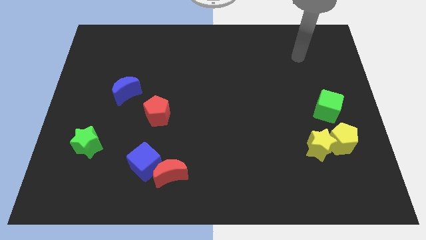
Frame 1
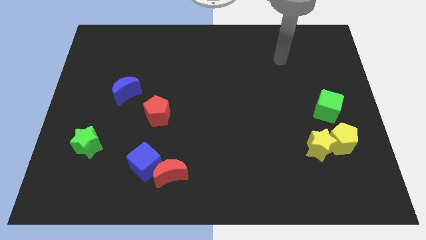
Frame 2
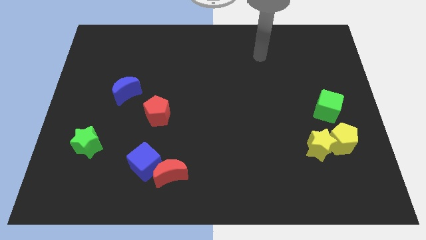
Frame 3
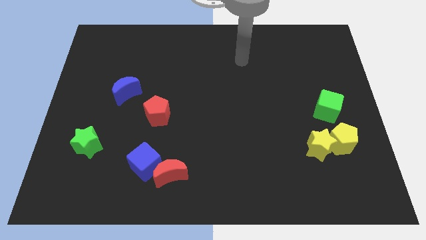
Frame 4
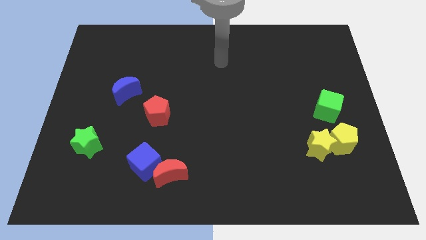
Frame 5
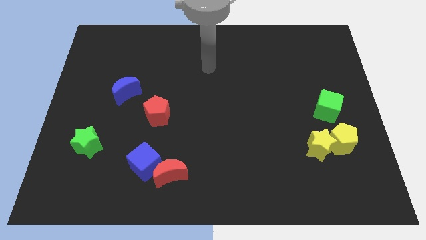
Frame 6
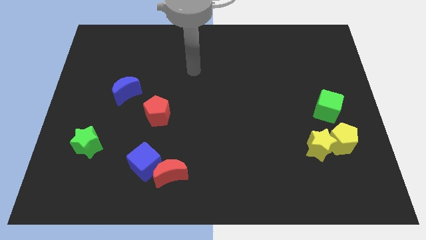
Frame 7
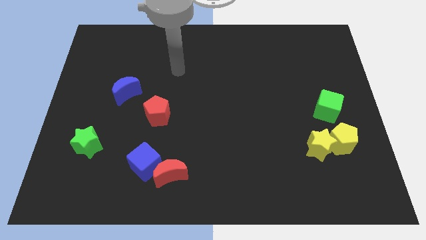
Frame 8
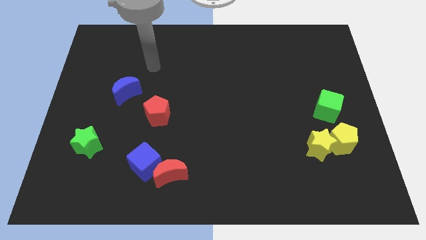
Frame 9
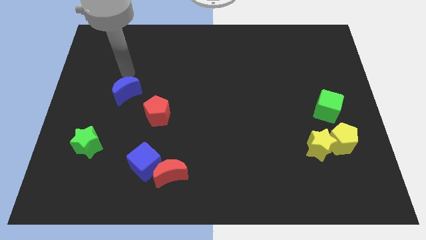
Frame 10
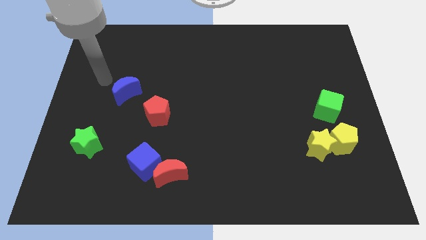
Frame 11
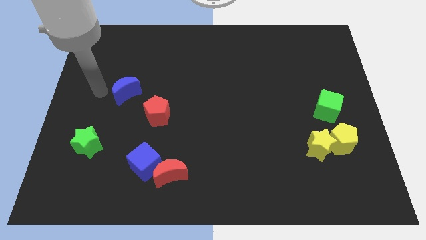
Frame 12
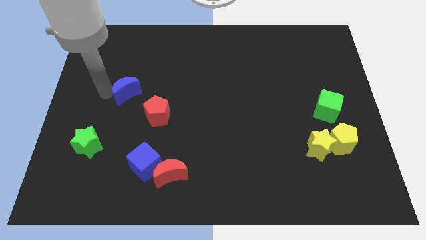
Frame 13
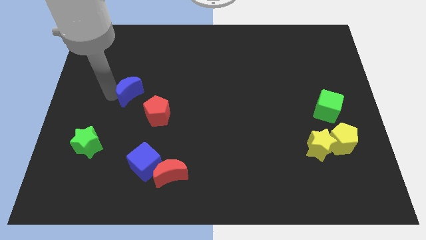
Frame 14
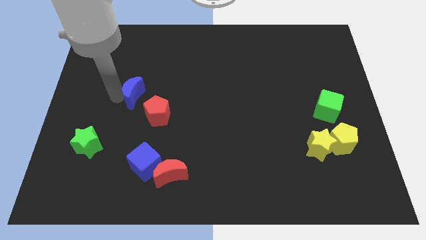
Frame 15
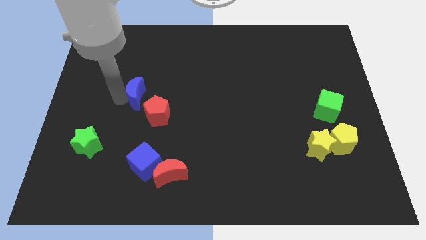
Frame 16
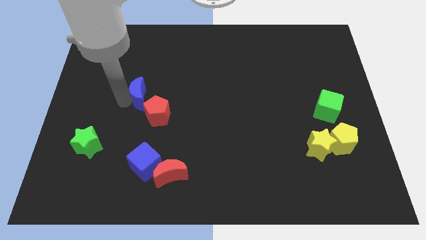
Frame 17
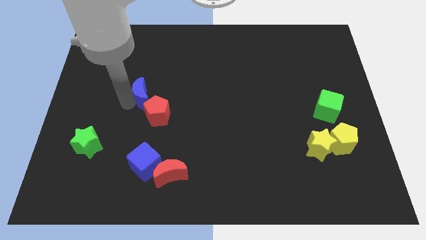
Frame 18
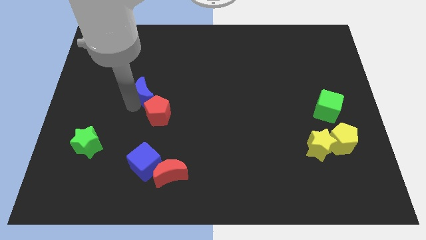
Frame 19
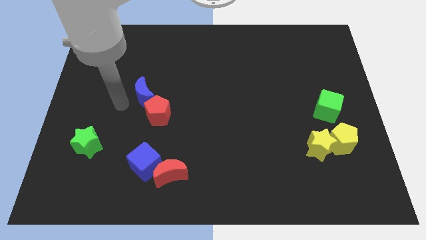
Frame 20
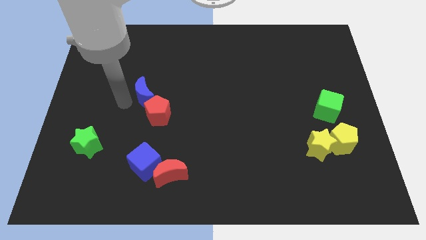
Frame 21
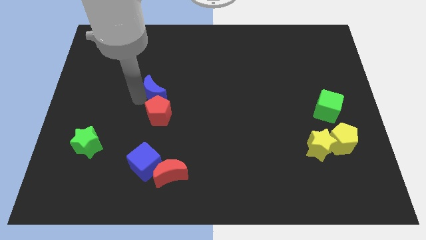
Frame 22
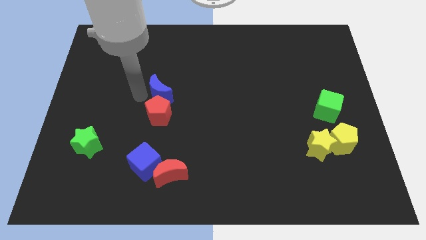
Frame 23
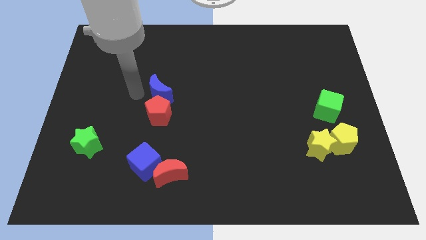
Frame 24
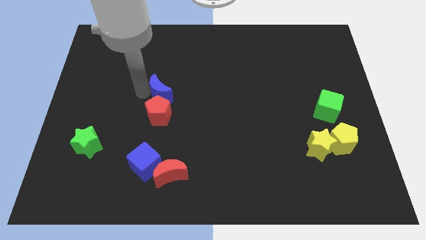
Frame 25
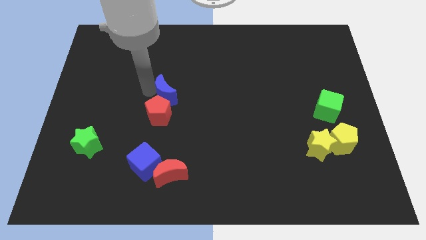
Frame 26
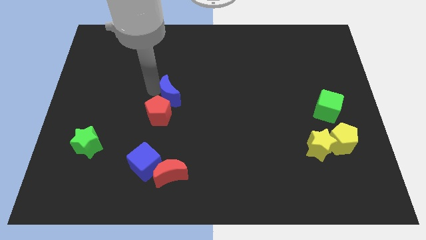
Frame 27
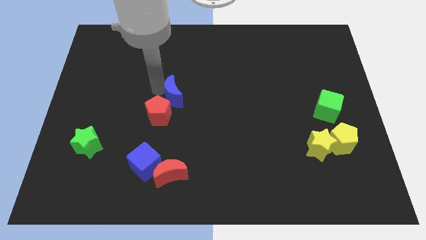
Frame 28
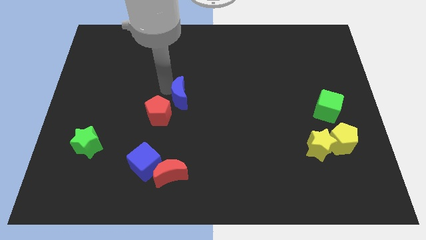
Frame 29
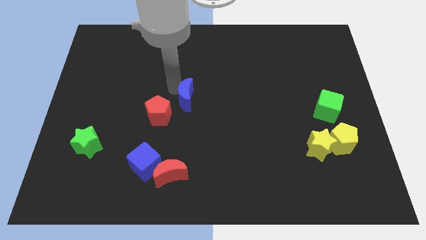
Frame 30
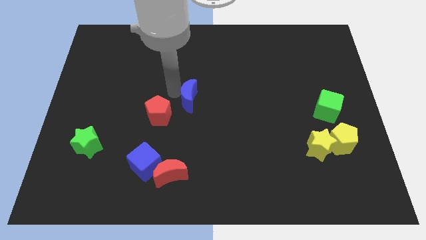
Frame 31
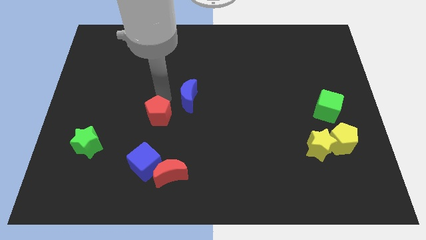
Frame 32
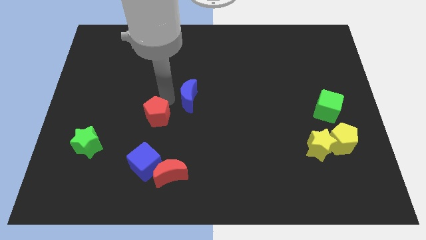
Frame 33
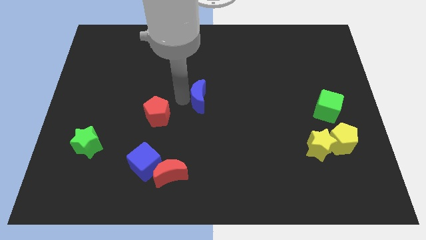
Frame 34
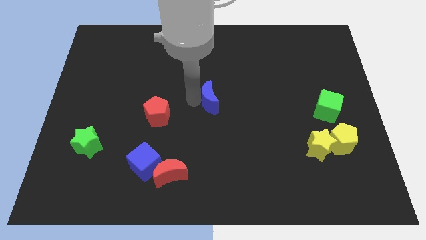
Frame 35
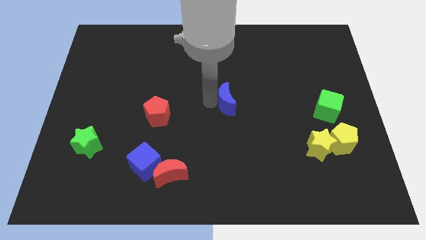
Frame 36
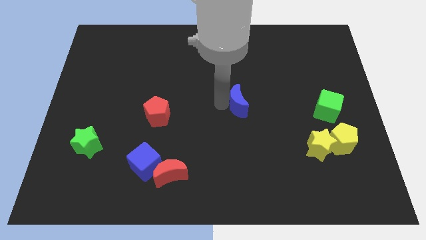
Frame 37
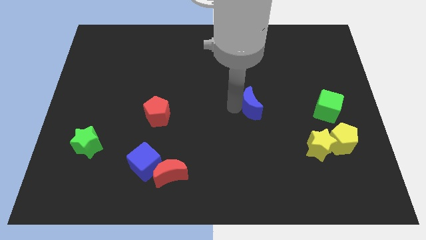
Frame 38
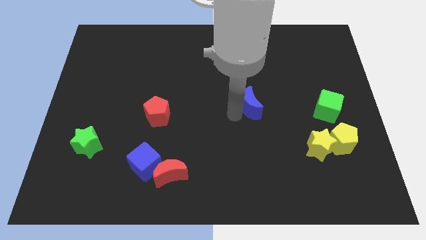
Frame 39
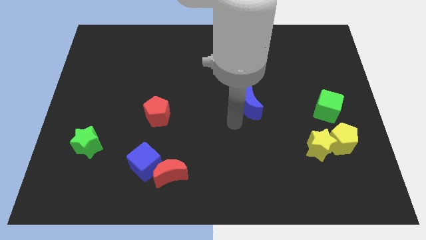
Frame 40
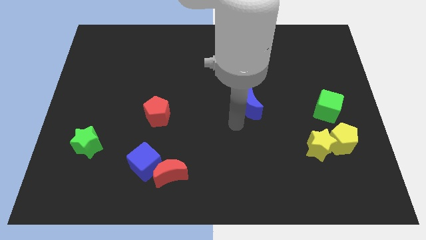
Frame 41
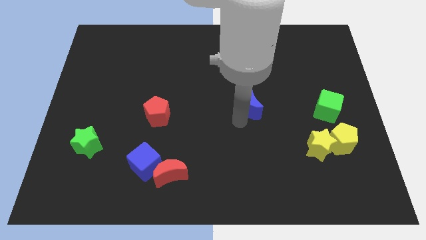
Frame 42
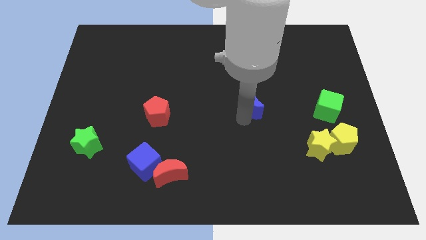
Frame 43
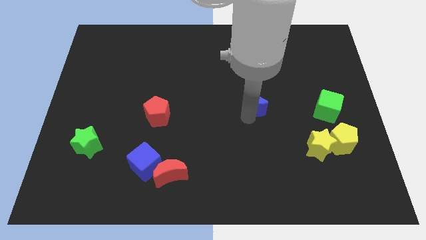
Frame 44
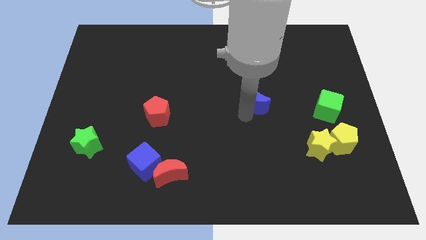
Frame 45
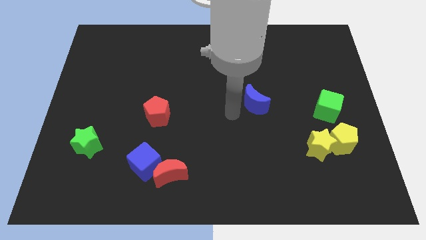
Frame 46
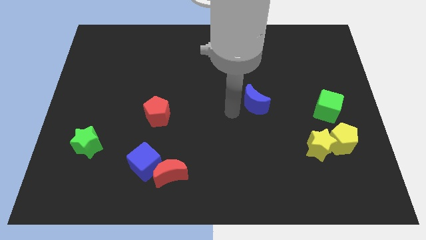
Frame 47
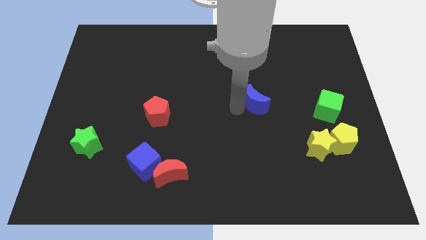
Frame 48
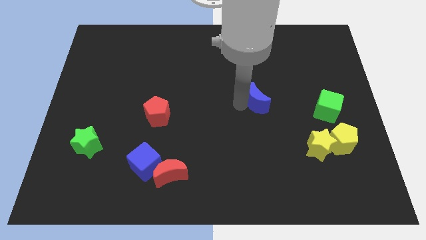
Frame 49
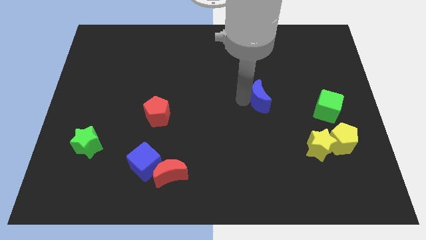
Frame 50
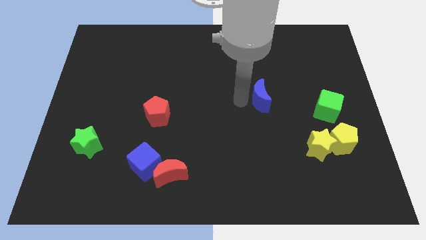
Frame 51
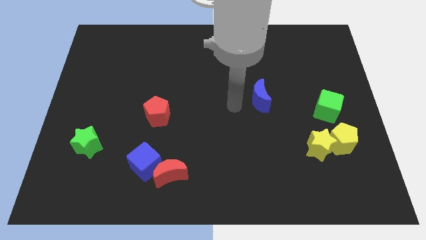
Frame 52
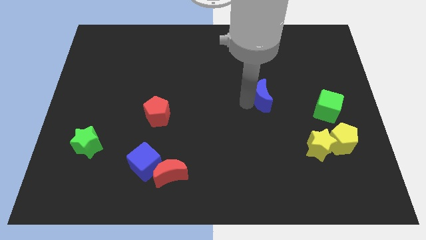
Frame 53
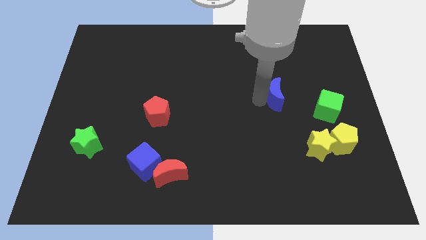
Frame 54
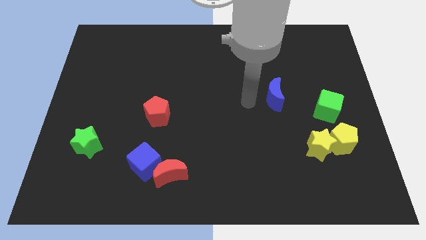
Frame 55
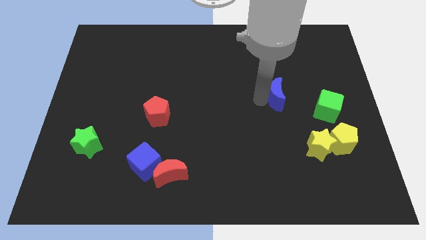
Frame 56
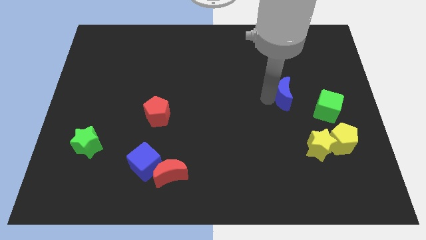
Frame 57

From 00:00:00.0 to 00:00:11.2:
put the blue moon to the top left side of the green cube
